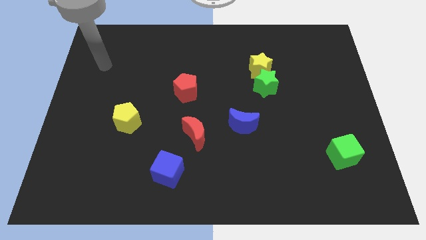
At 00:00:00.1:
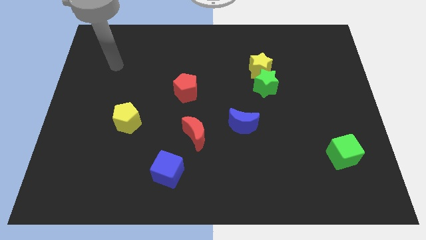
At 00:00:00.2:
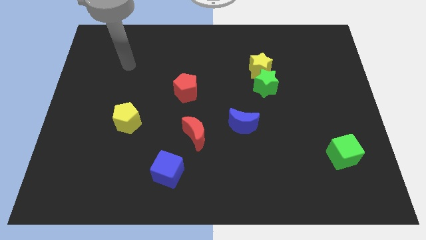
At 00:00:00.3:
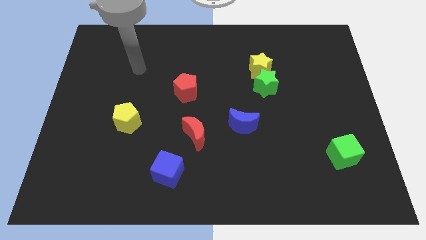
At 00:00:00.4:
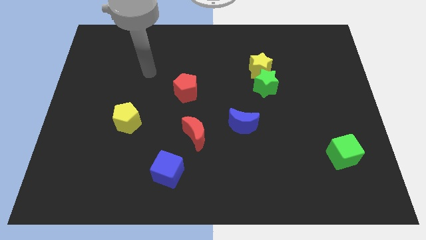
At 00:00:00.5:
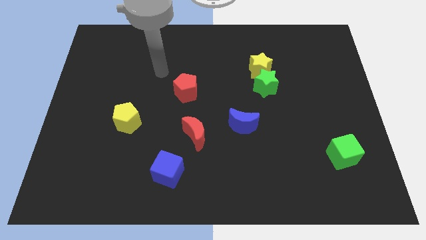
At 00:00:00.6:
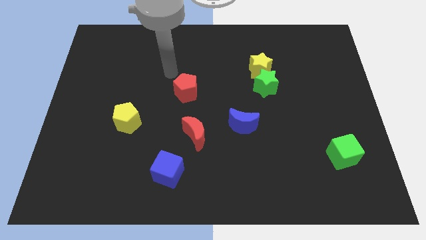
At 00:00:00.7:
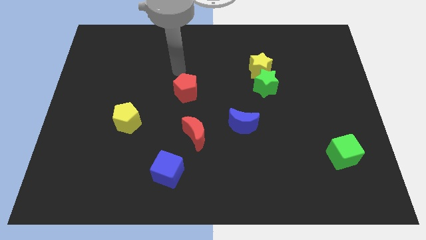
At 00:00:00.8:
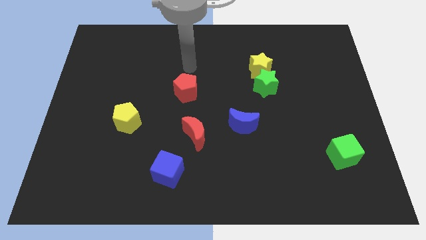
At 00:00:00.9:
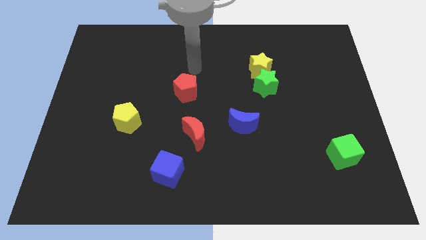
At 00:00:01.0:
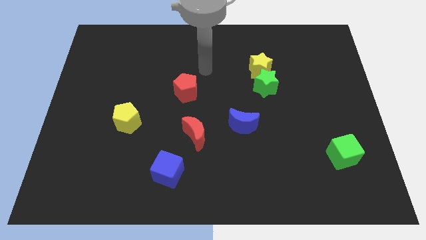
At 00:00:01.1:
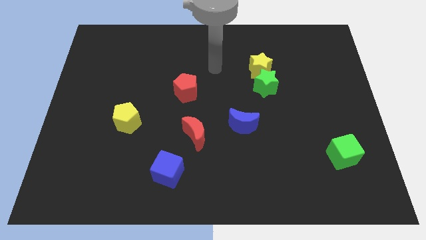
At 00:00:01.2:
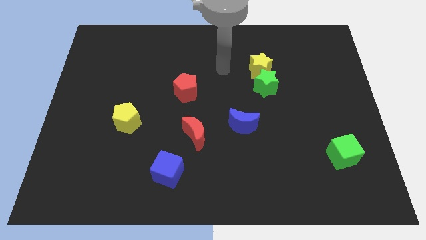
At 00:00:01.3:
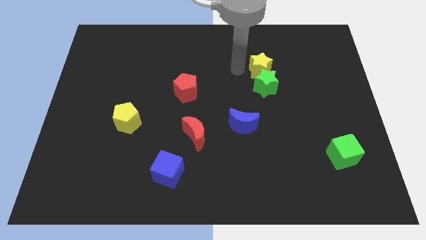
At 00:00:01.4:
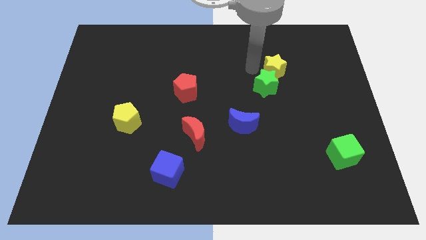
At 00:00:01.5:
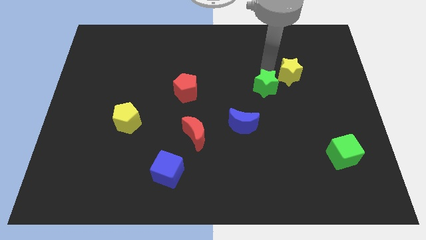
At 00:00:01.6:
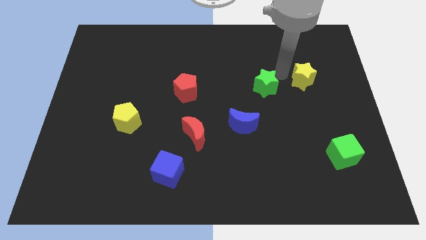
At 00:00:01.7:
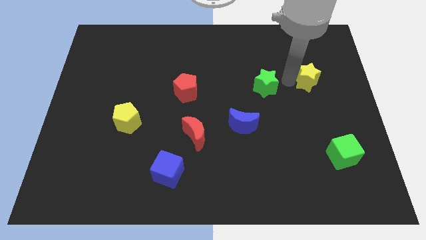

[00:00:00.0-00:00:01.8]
separate the green star from the yellow star

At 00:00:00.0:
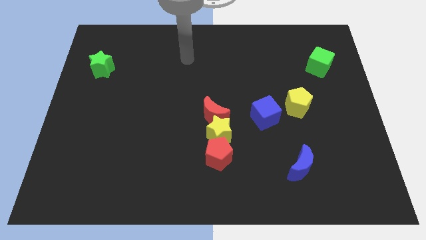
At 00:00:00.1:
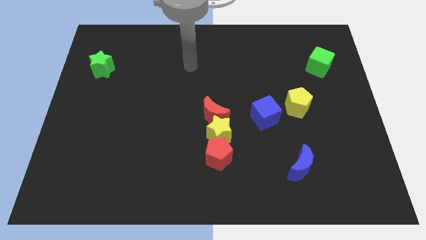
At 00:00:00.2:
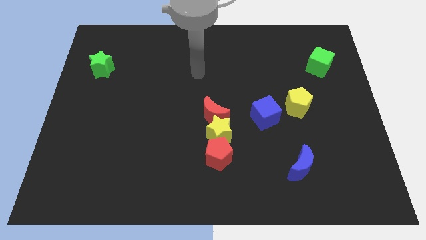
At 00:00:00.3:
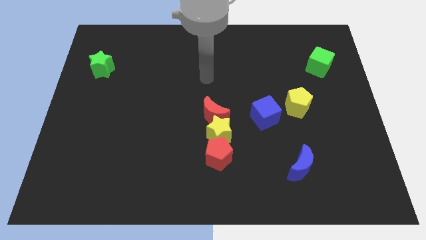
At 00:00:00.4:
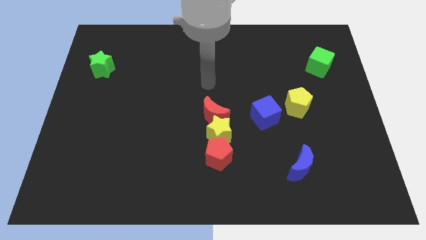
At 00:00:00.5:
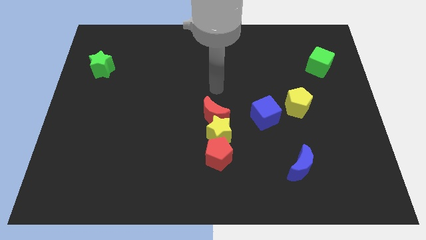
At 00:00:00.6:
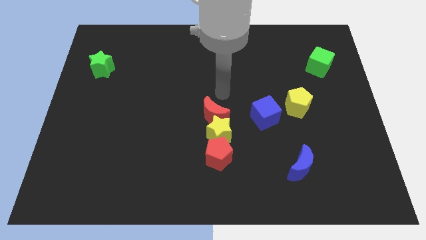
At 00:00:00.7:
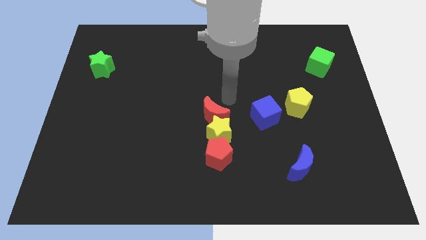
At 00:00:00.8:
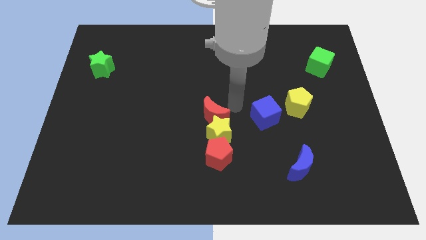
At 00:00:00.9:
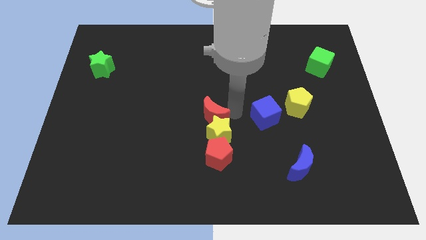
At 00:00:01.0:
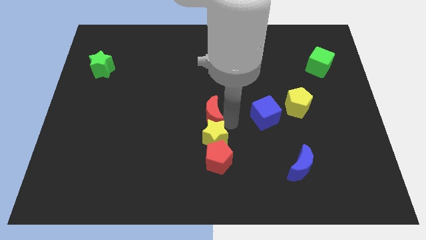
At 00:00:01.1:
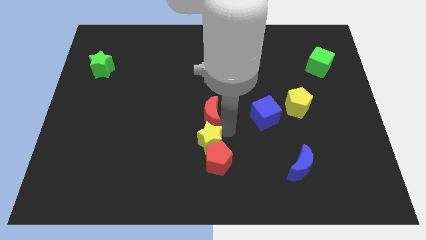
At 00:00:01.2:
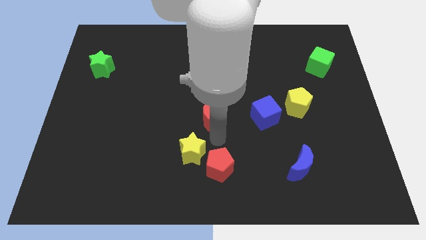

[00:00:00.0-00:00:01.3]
separate the red moon from the yellow star

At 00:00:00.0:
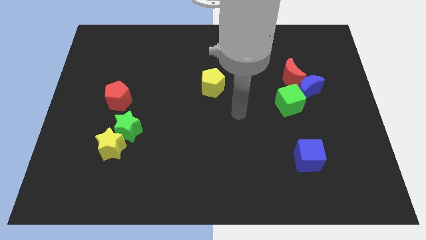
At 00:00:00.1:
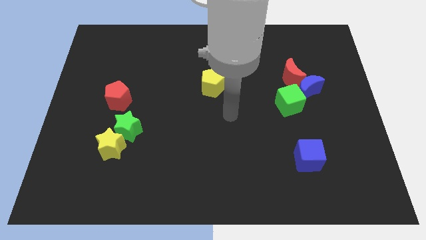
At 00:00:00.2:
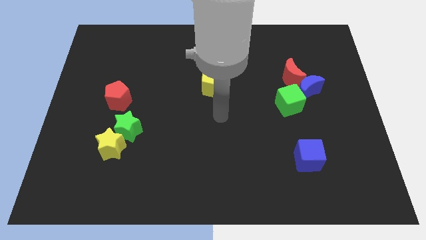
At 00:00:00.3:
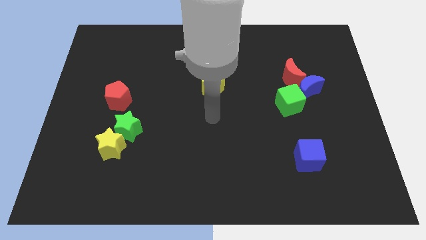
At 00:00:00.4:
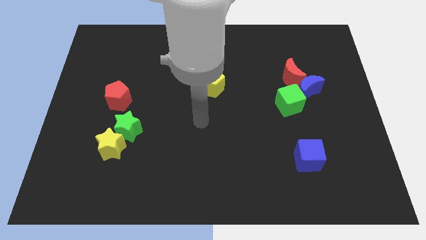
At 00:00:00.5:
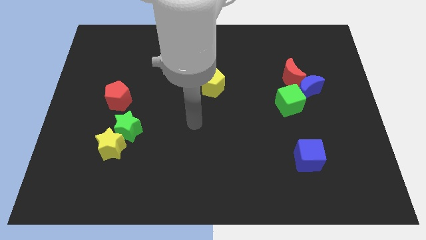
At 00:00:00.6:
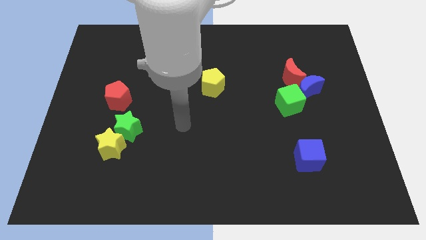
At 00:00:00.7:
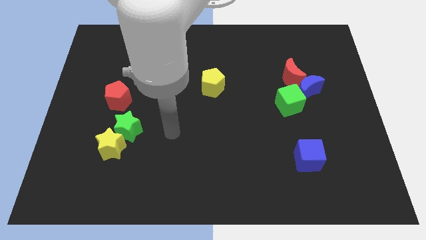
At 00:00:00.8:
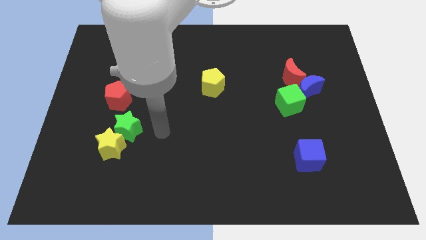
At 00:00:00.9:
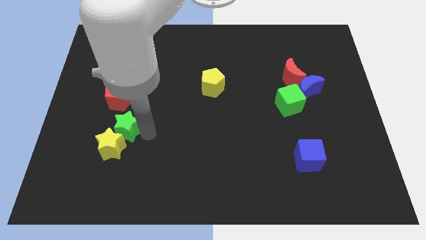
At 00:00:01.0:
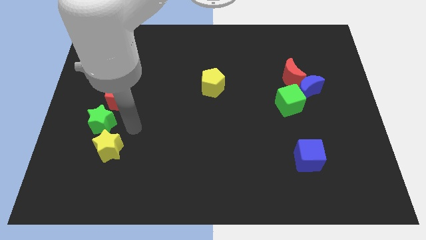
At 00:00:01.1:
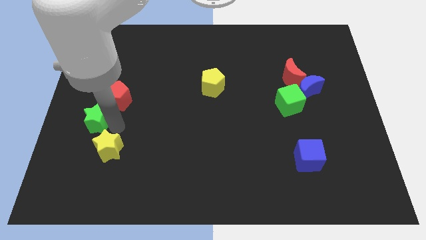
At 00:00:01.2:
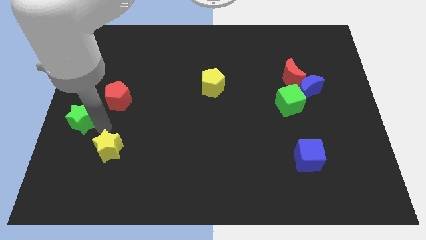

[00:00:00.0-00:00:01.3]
separate the yellow star from the green star

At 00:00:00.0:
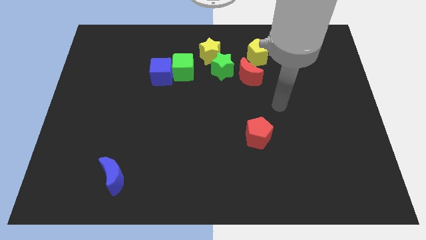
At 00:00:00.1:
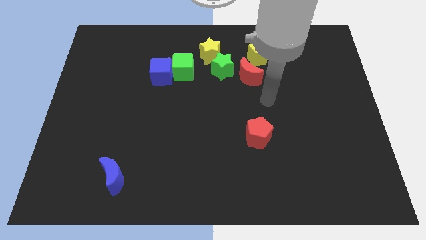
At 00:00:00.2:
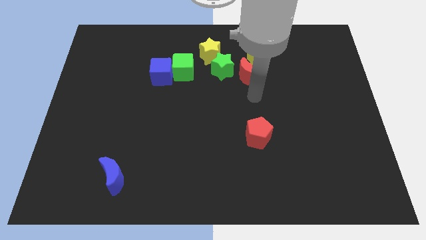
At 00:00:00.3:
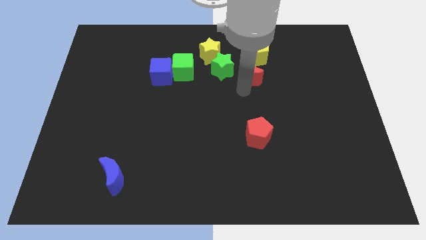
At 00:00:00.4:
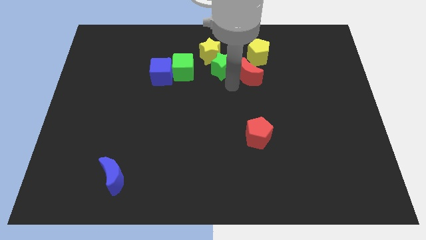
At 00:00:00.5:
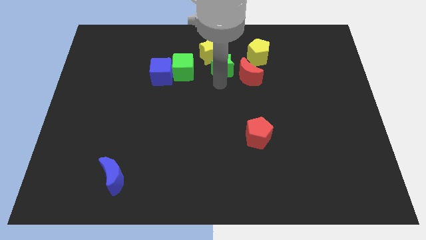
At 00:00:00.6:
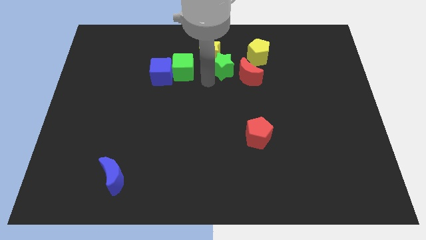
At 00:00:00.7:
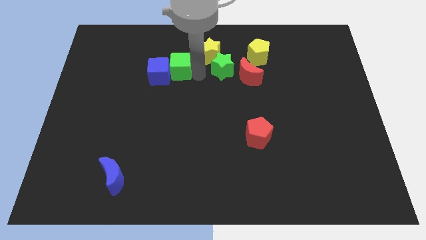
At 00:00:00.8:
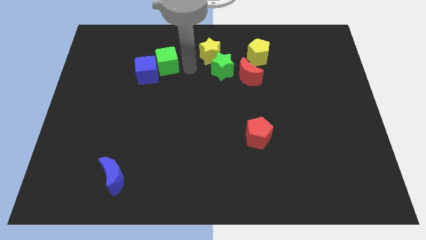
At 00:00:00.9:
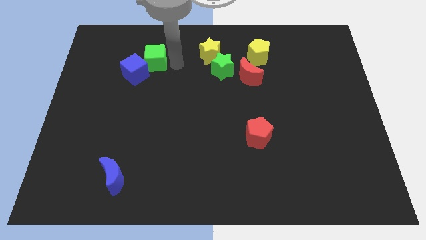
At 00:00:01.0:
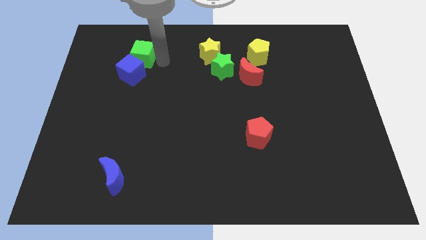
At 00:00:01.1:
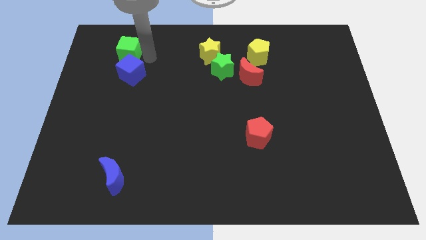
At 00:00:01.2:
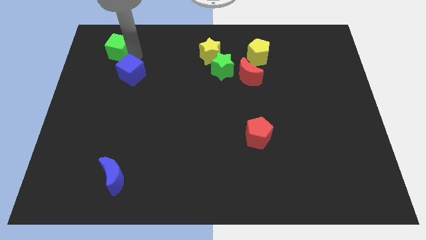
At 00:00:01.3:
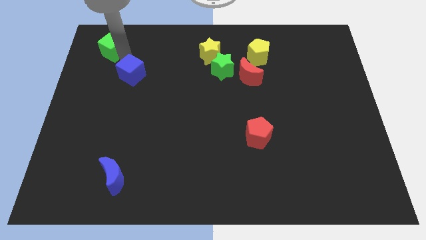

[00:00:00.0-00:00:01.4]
pull the blue cube apart from the green cube

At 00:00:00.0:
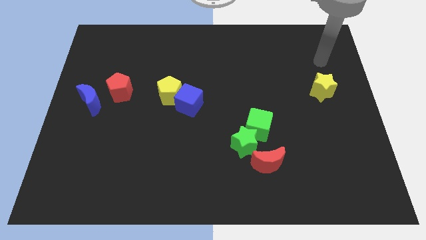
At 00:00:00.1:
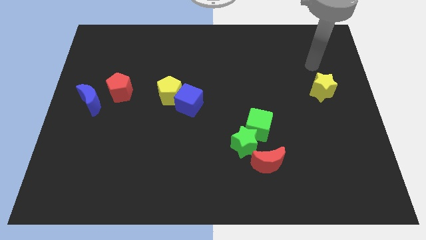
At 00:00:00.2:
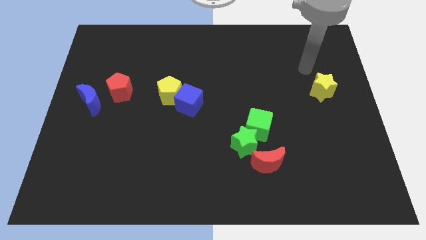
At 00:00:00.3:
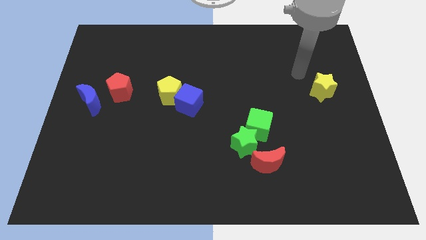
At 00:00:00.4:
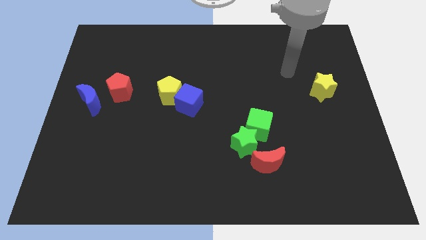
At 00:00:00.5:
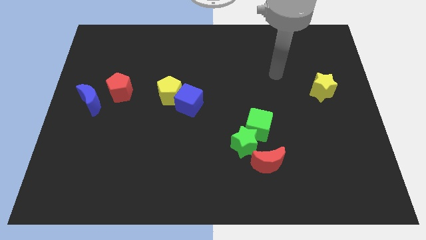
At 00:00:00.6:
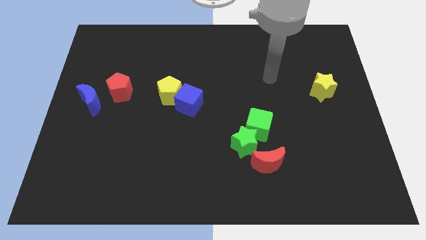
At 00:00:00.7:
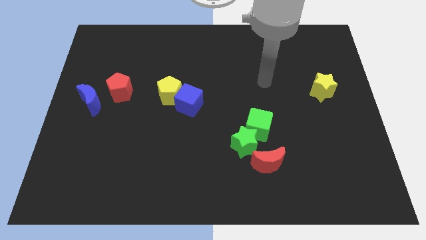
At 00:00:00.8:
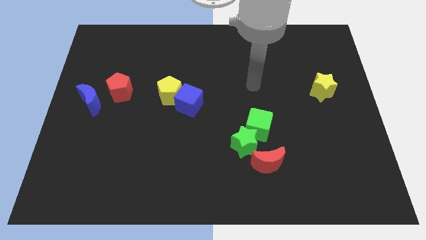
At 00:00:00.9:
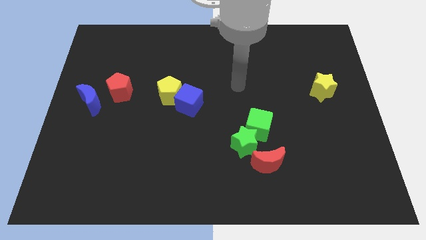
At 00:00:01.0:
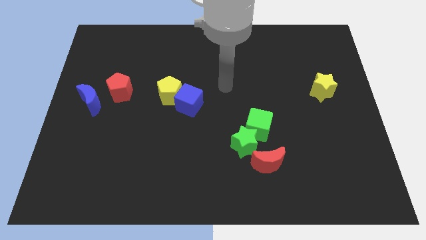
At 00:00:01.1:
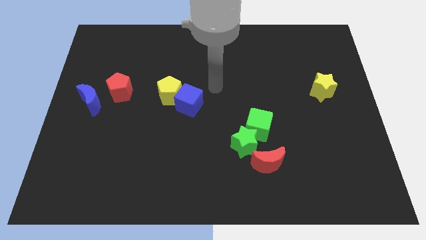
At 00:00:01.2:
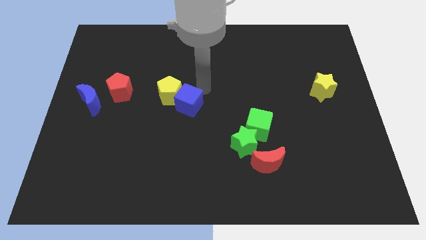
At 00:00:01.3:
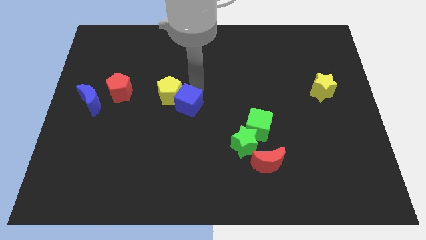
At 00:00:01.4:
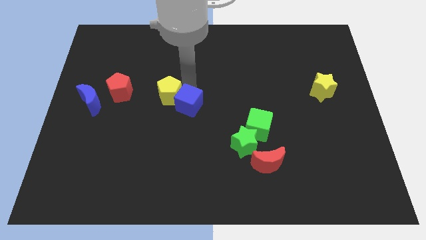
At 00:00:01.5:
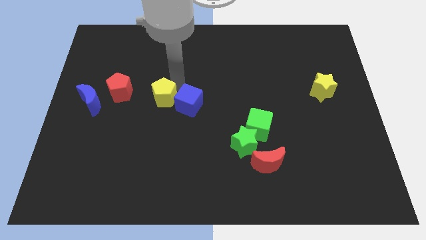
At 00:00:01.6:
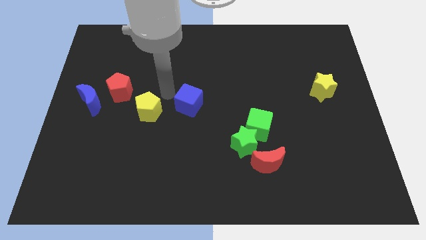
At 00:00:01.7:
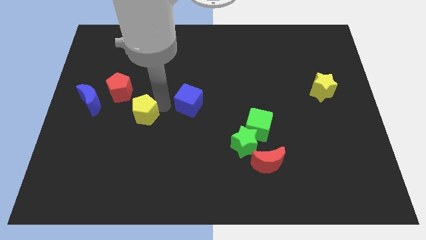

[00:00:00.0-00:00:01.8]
pull the blue cube apart from the yellow pentagon

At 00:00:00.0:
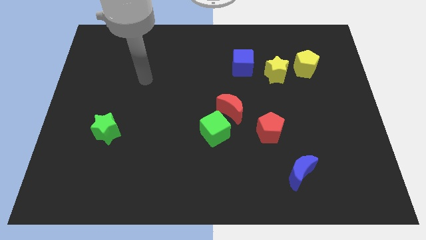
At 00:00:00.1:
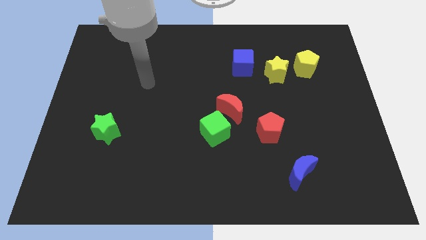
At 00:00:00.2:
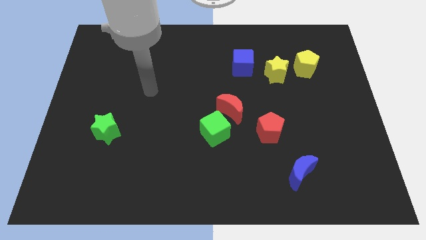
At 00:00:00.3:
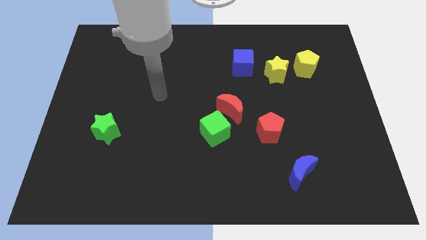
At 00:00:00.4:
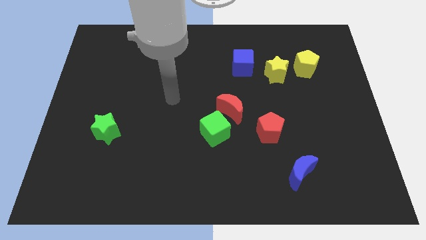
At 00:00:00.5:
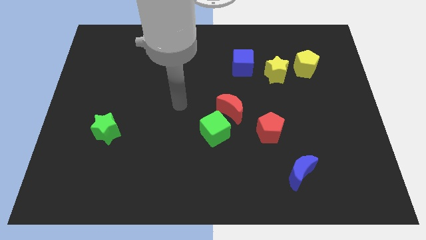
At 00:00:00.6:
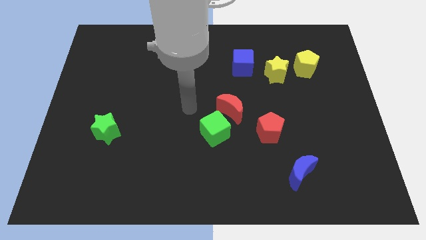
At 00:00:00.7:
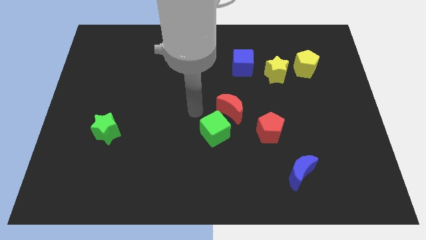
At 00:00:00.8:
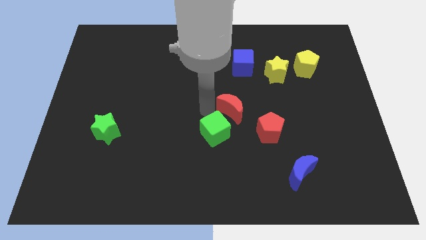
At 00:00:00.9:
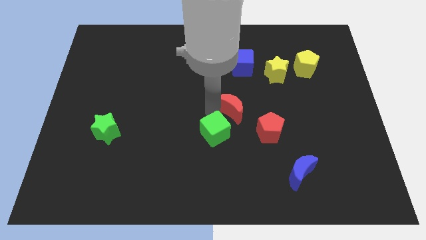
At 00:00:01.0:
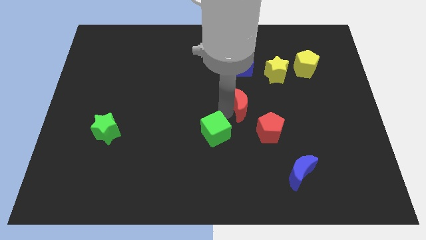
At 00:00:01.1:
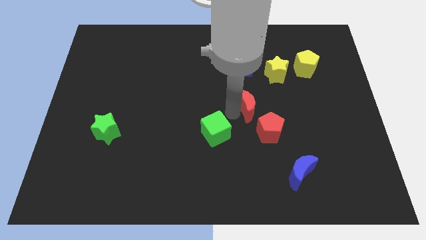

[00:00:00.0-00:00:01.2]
move the green cube away from the red moon

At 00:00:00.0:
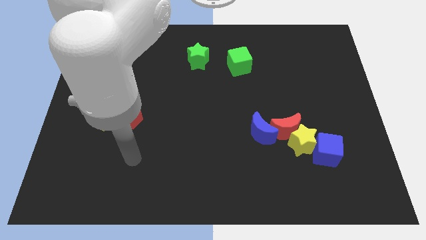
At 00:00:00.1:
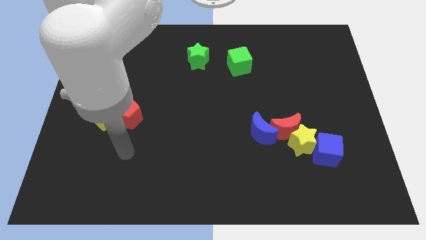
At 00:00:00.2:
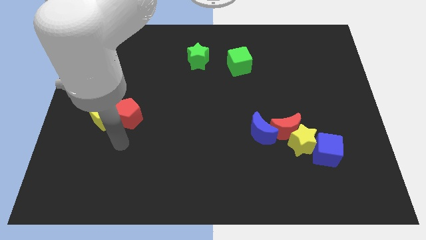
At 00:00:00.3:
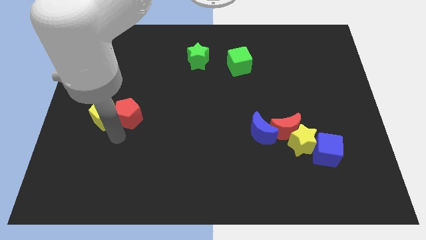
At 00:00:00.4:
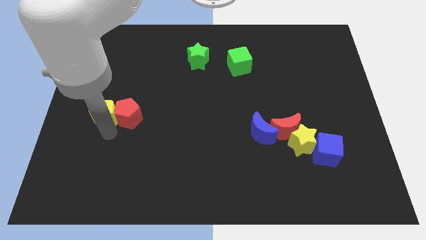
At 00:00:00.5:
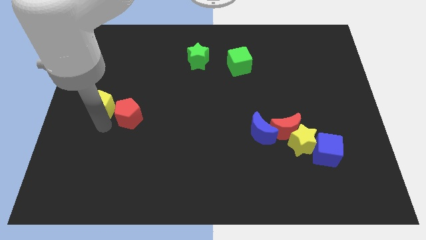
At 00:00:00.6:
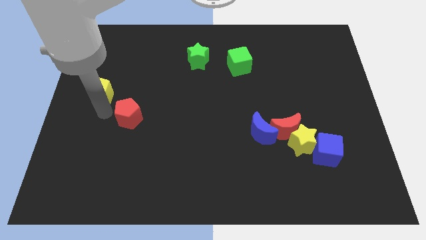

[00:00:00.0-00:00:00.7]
pull the red pentagon apart from the yellow pentagon
